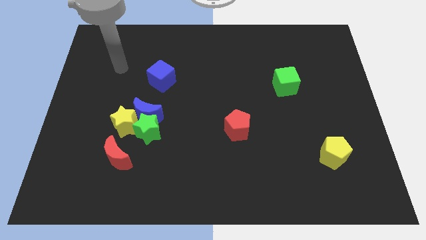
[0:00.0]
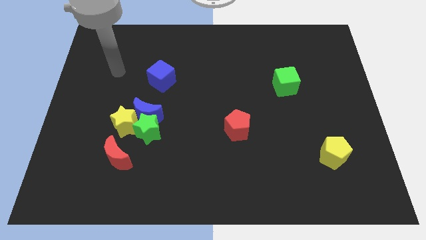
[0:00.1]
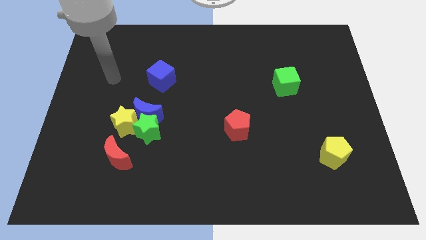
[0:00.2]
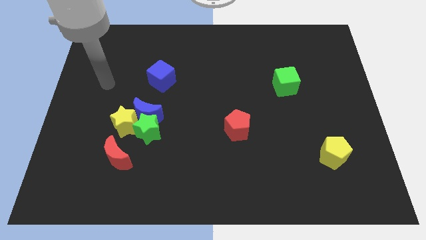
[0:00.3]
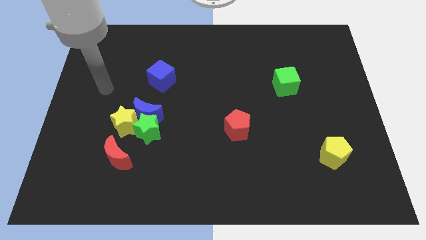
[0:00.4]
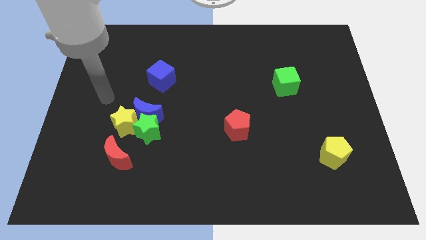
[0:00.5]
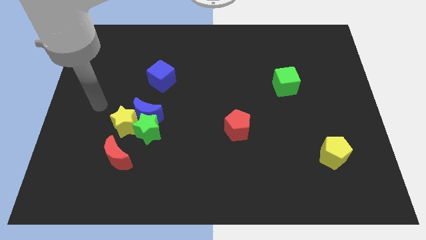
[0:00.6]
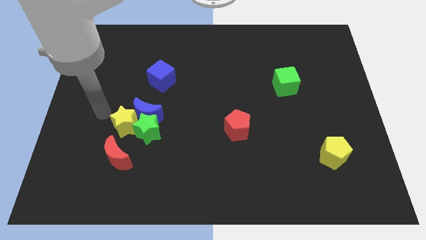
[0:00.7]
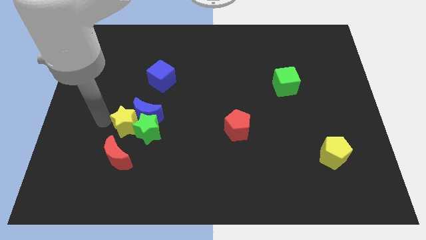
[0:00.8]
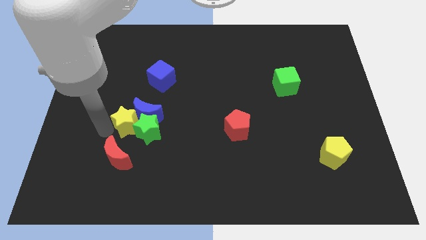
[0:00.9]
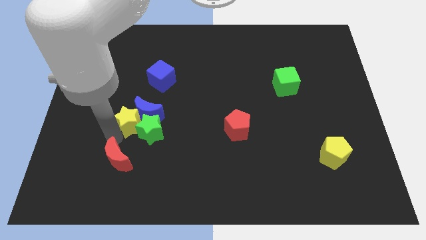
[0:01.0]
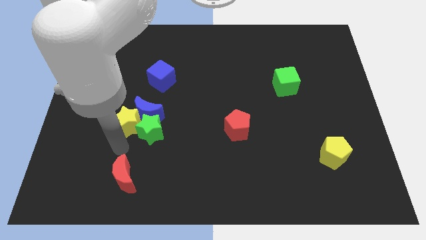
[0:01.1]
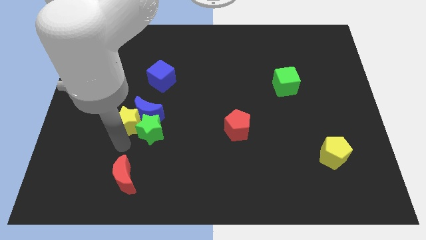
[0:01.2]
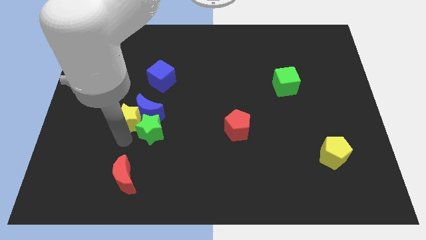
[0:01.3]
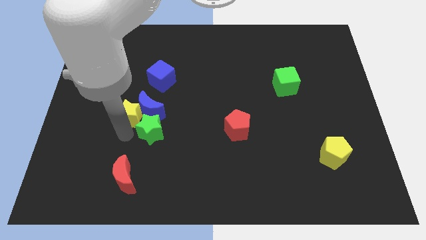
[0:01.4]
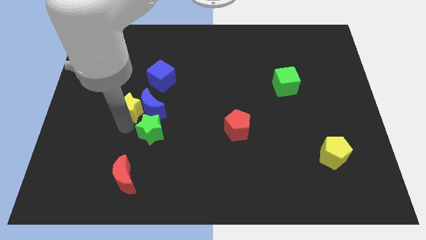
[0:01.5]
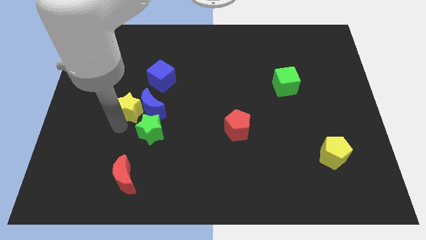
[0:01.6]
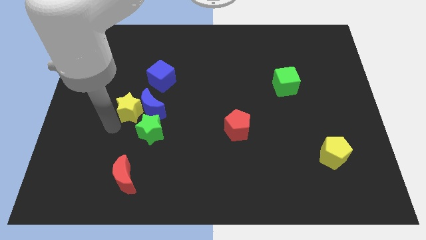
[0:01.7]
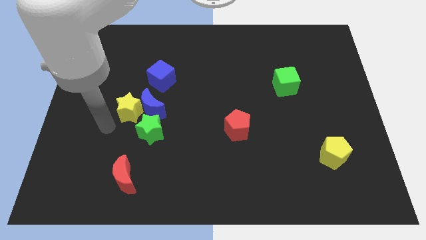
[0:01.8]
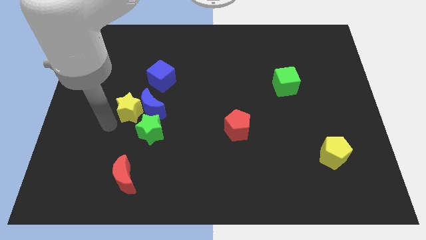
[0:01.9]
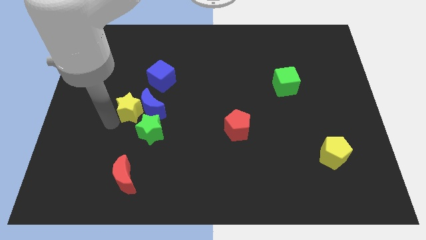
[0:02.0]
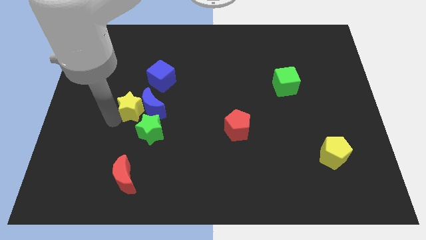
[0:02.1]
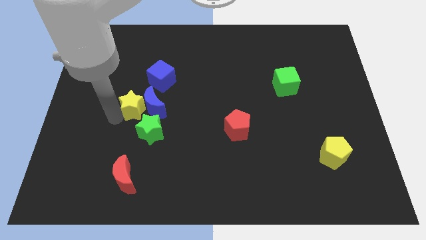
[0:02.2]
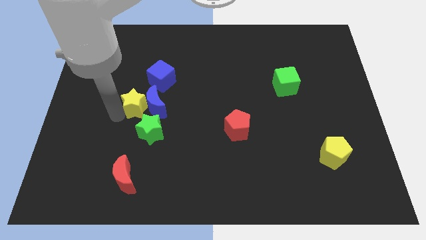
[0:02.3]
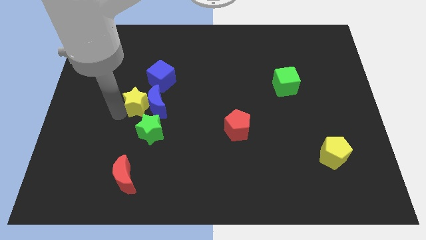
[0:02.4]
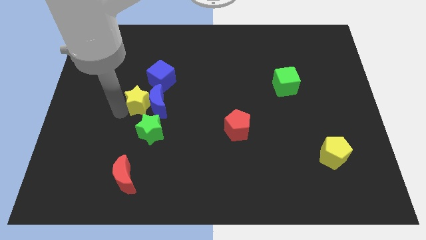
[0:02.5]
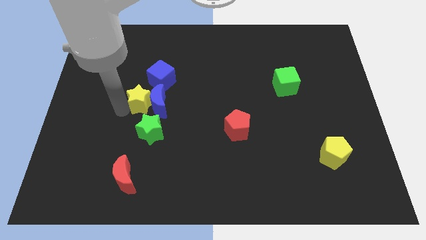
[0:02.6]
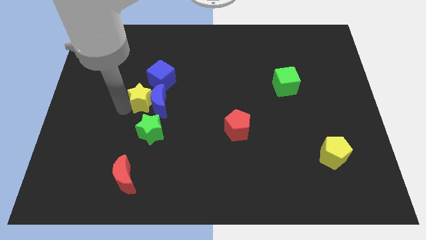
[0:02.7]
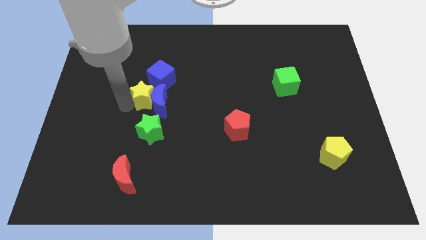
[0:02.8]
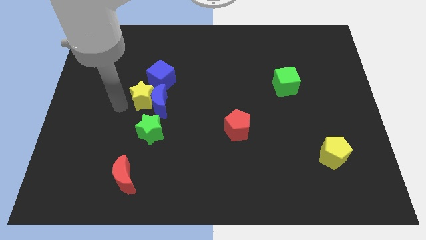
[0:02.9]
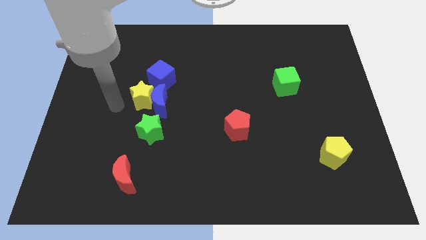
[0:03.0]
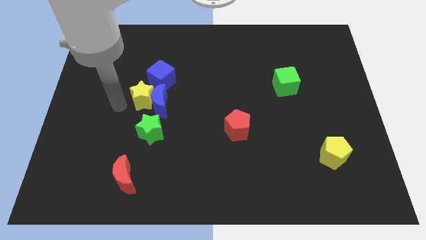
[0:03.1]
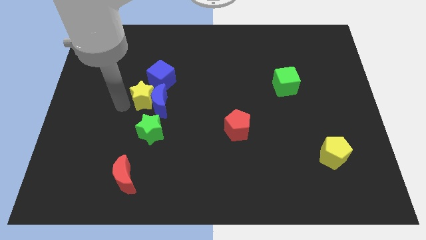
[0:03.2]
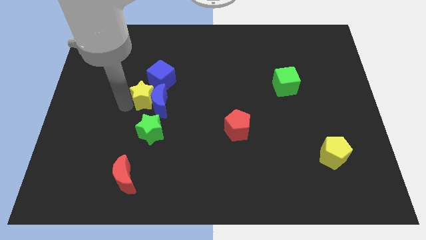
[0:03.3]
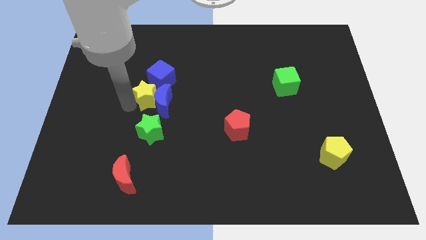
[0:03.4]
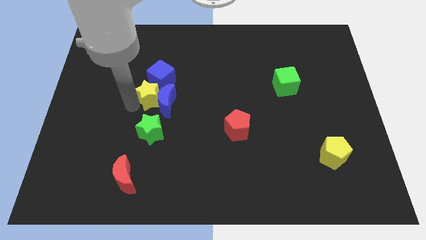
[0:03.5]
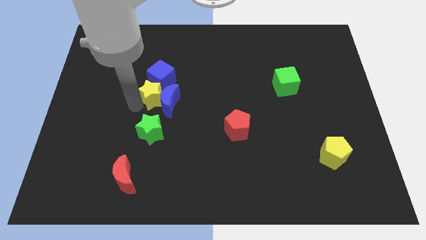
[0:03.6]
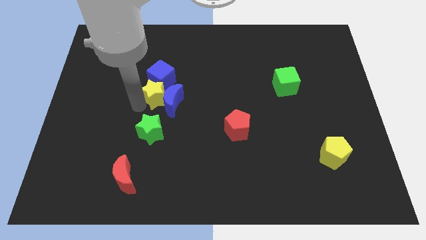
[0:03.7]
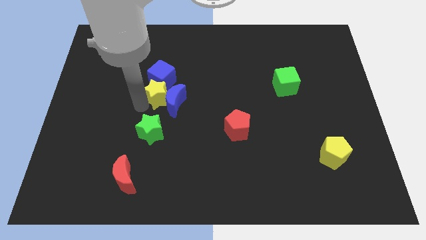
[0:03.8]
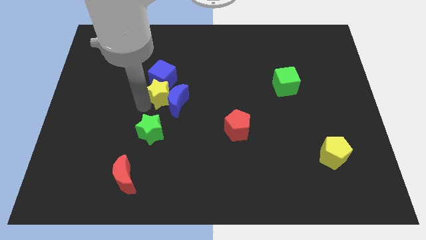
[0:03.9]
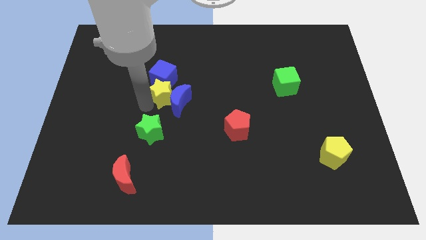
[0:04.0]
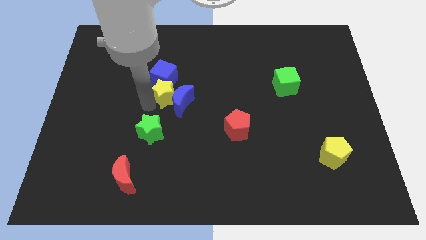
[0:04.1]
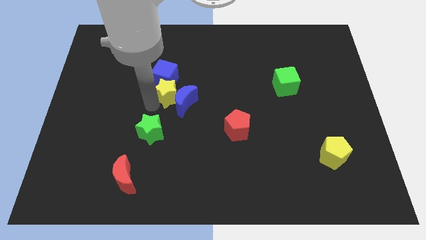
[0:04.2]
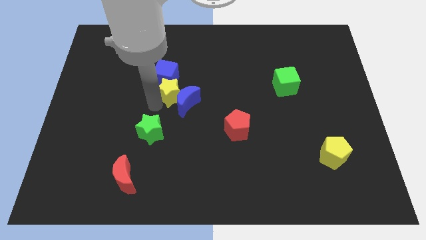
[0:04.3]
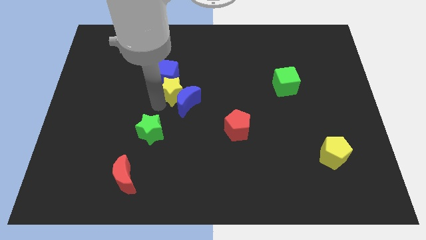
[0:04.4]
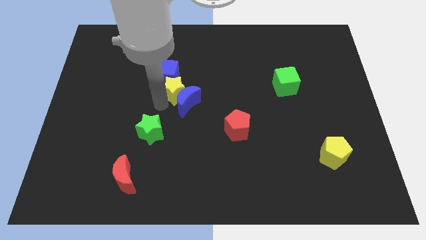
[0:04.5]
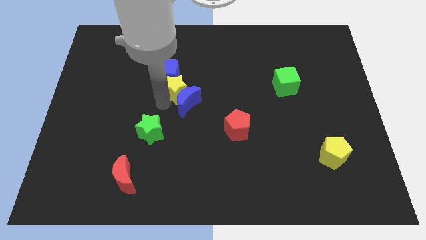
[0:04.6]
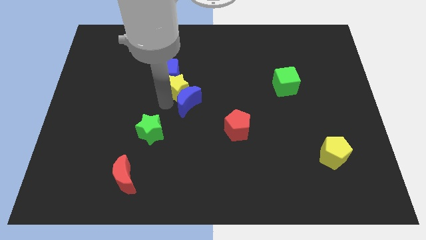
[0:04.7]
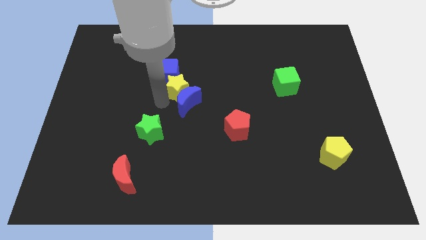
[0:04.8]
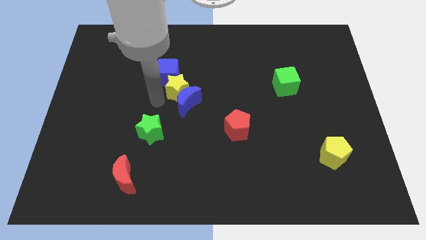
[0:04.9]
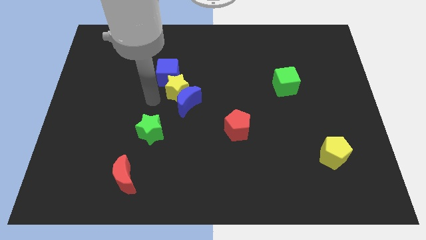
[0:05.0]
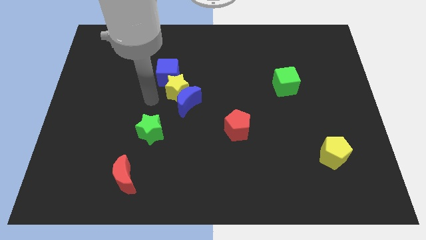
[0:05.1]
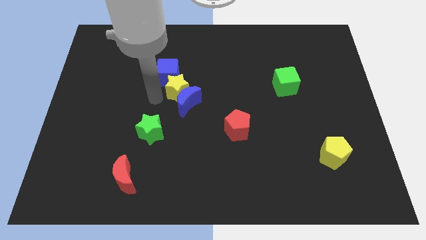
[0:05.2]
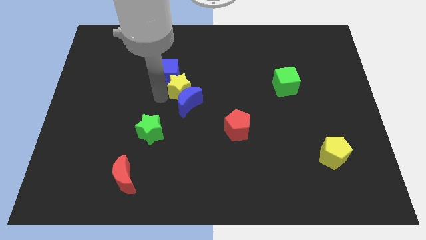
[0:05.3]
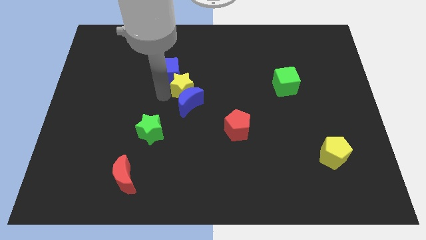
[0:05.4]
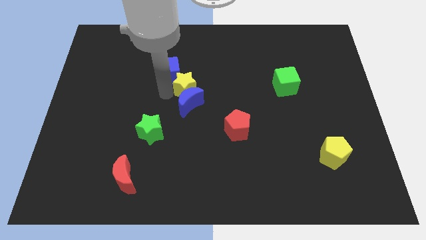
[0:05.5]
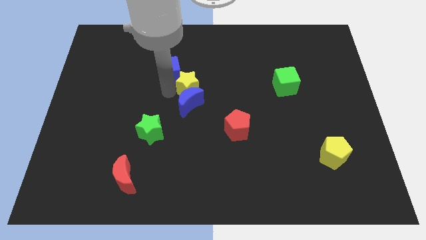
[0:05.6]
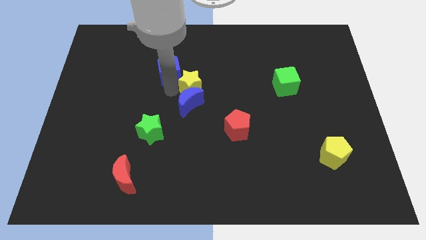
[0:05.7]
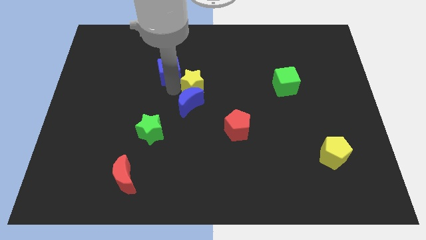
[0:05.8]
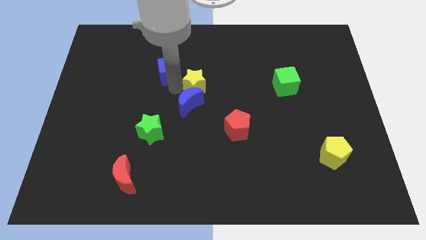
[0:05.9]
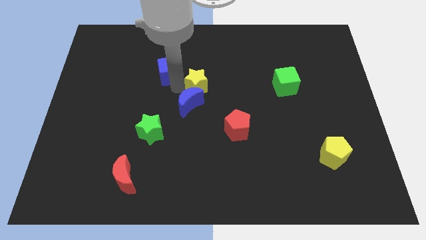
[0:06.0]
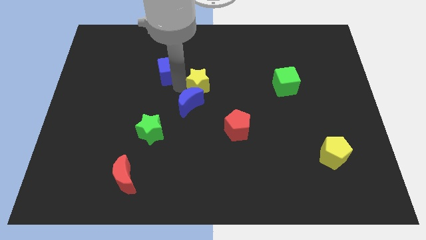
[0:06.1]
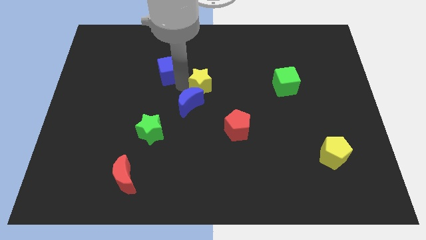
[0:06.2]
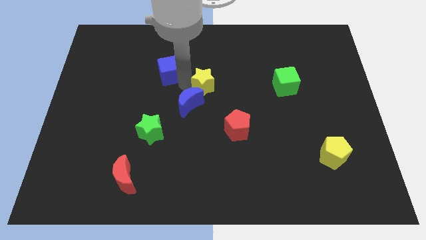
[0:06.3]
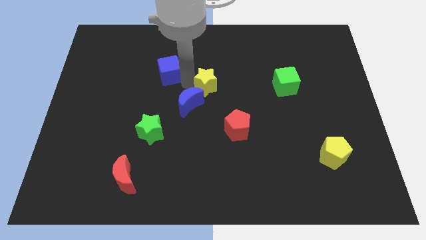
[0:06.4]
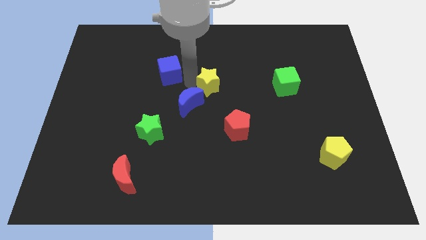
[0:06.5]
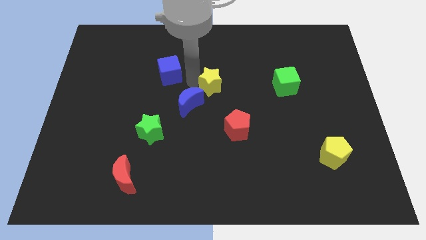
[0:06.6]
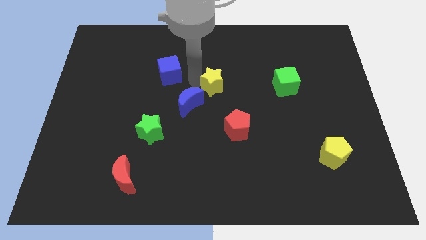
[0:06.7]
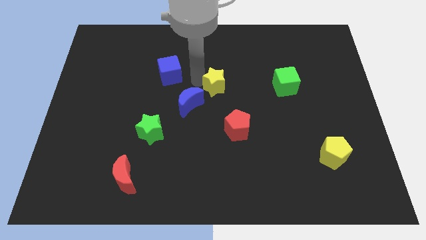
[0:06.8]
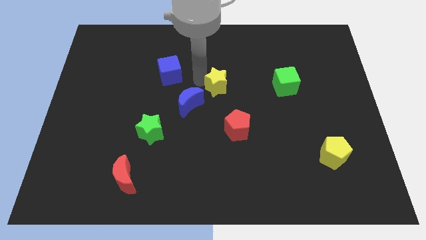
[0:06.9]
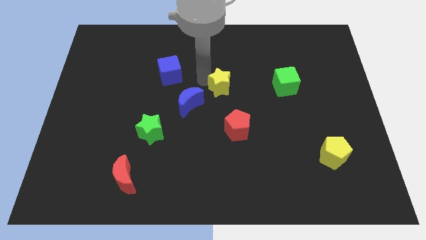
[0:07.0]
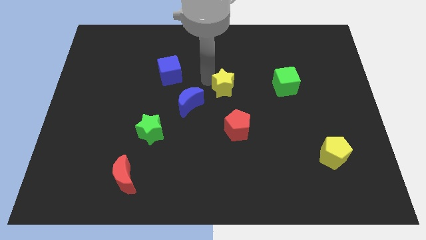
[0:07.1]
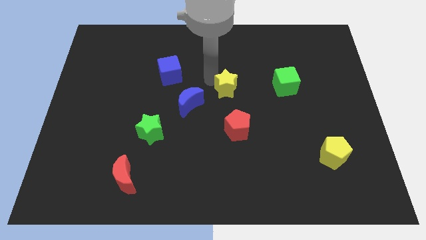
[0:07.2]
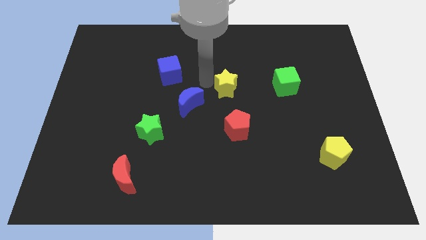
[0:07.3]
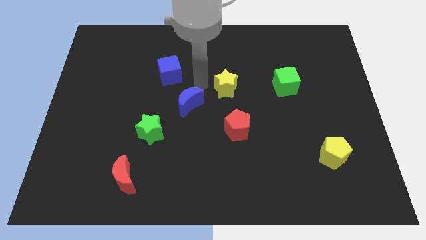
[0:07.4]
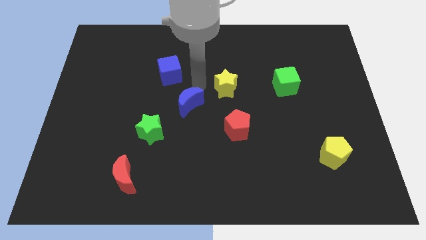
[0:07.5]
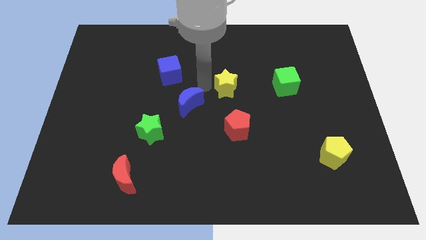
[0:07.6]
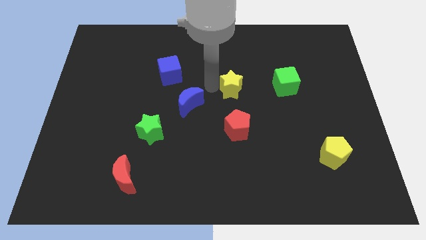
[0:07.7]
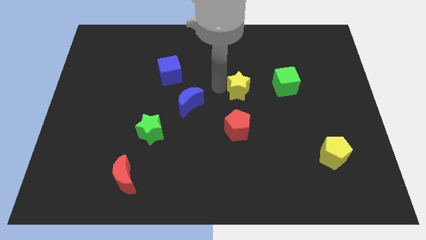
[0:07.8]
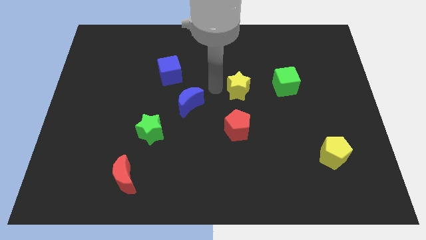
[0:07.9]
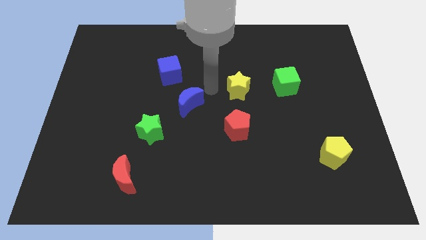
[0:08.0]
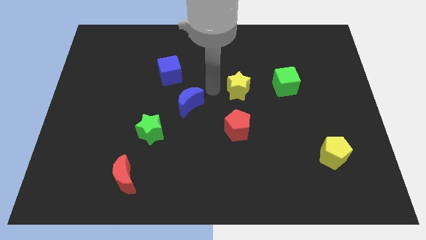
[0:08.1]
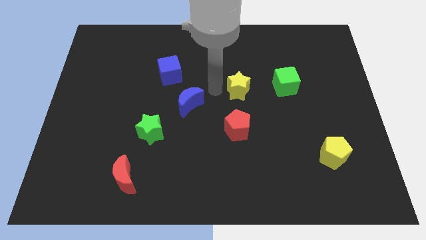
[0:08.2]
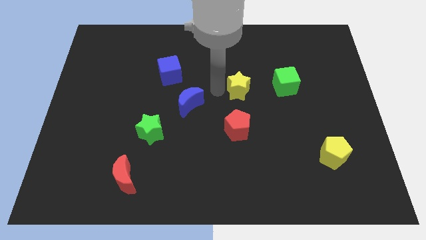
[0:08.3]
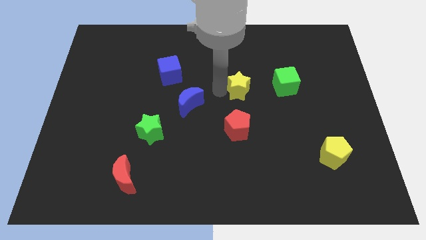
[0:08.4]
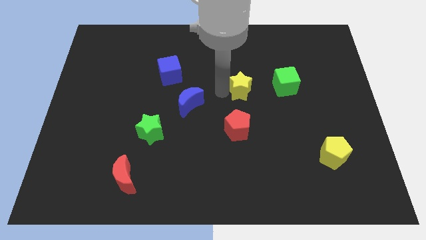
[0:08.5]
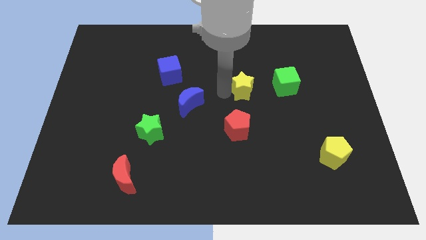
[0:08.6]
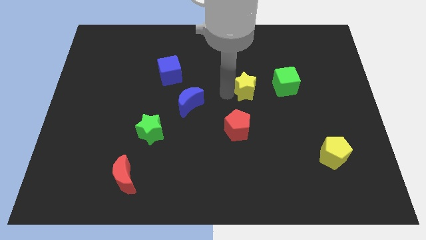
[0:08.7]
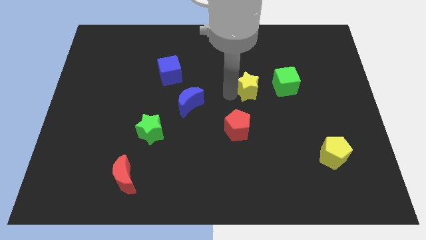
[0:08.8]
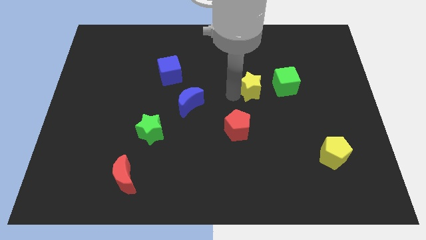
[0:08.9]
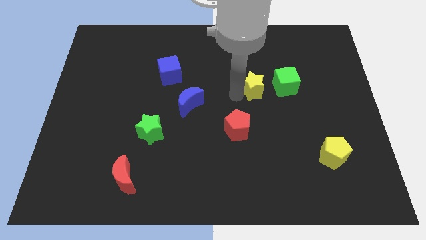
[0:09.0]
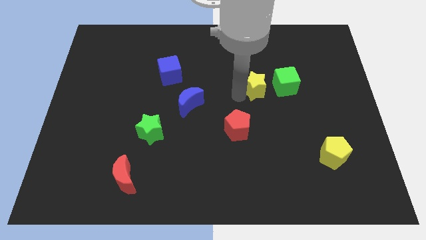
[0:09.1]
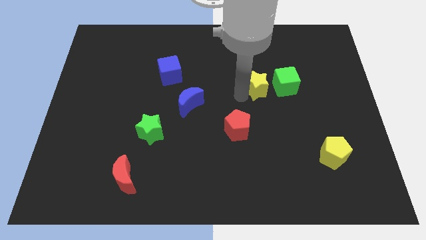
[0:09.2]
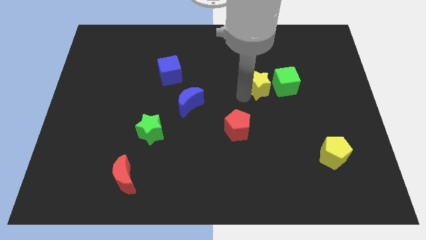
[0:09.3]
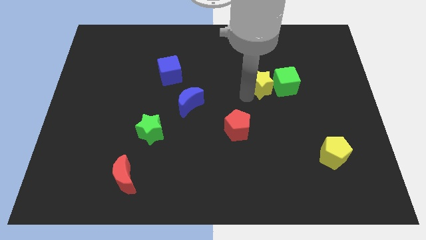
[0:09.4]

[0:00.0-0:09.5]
put the yellow star next to the green cube
